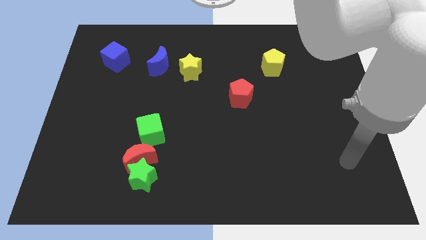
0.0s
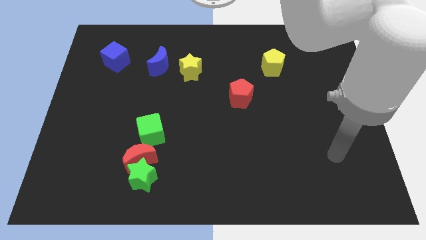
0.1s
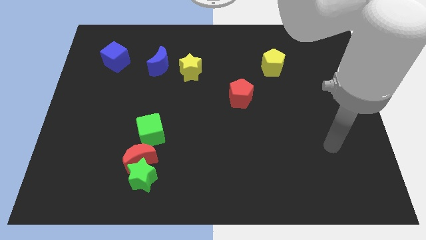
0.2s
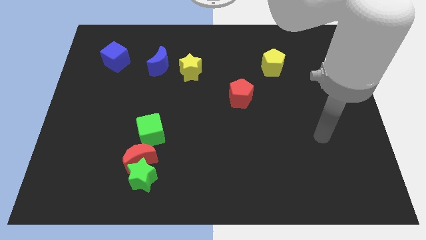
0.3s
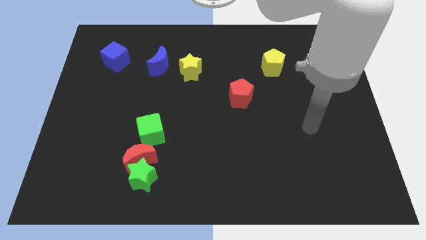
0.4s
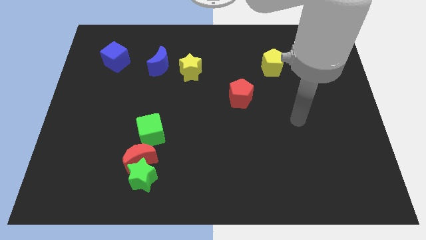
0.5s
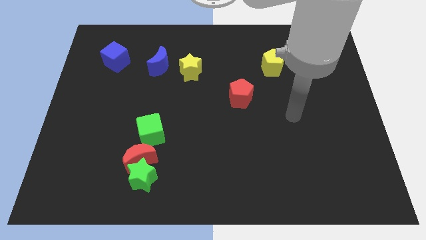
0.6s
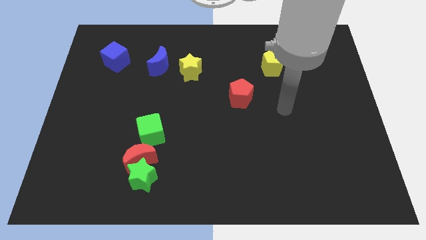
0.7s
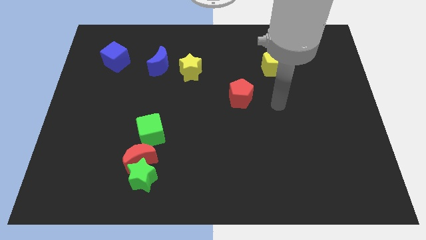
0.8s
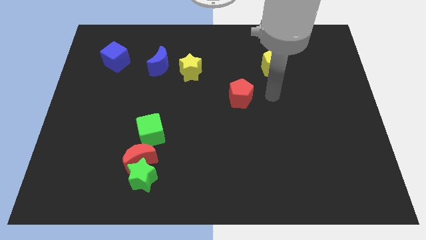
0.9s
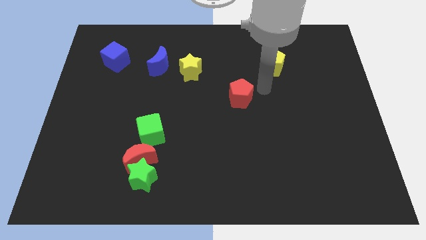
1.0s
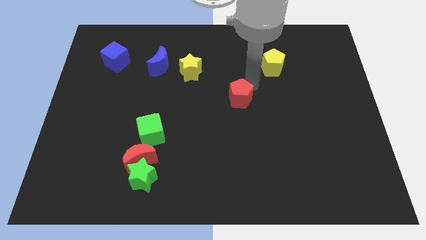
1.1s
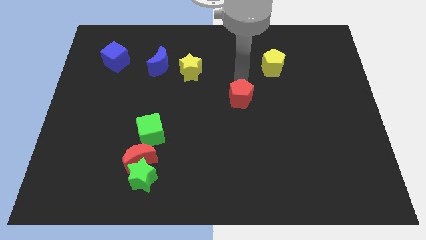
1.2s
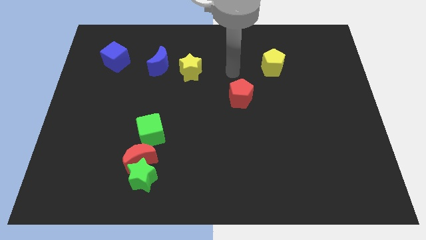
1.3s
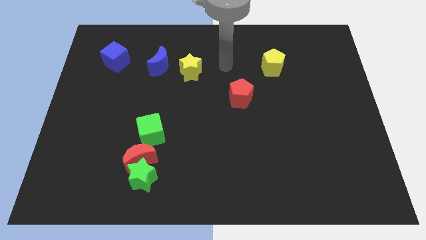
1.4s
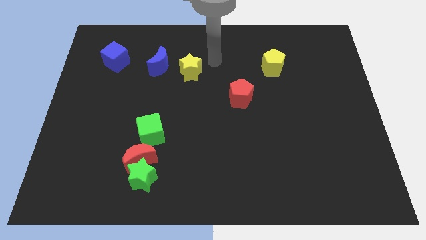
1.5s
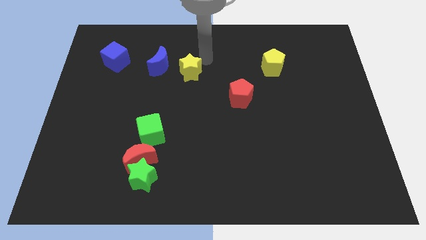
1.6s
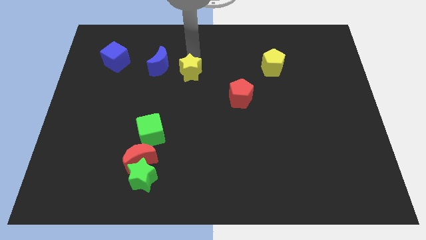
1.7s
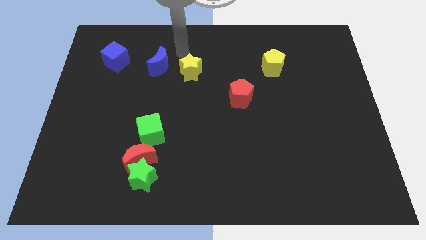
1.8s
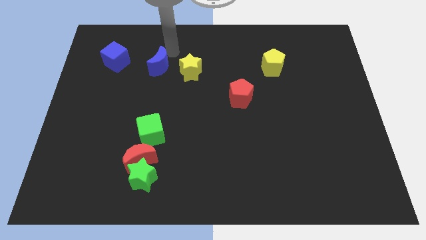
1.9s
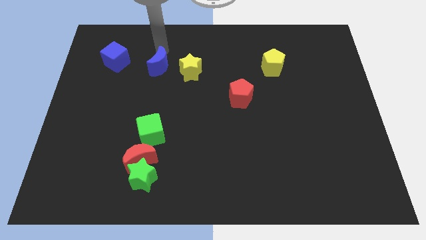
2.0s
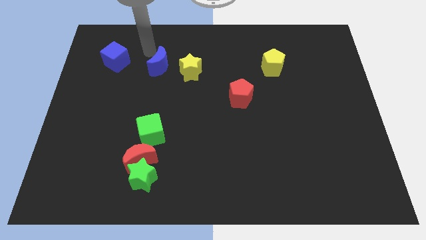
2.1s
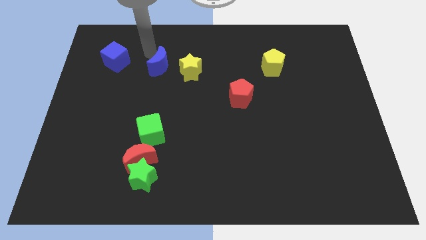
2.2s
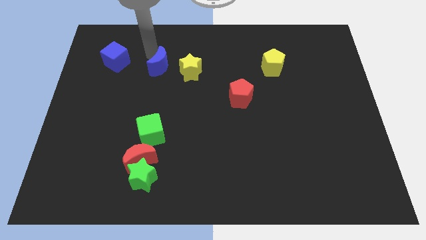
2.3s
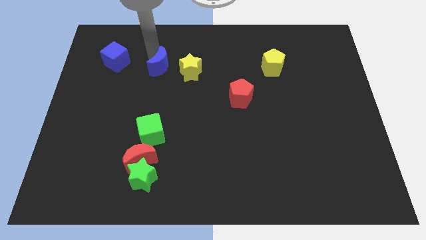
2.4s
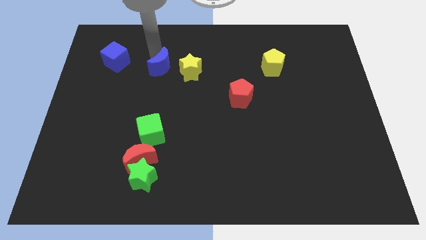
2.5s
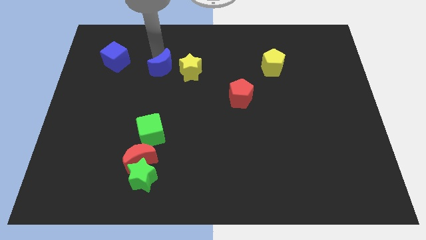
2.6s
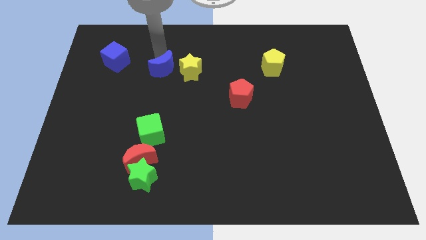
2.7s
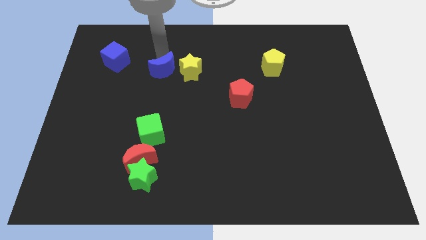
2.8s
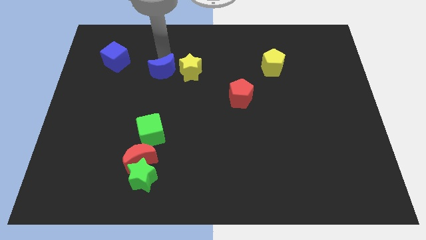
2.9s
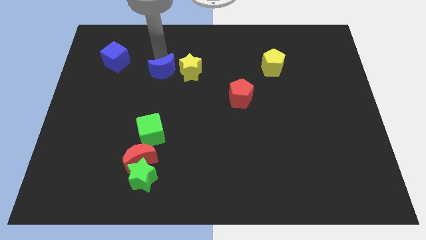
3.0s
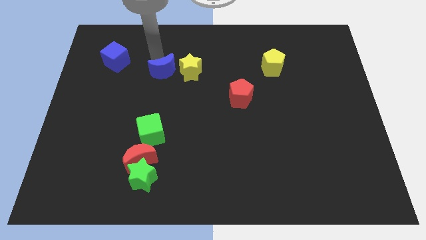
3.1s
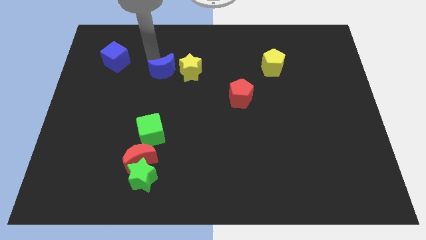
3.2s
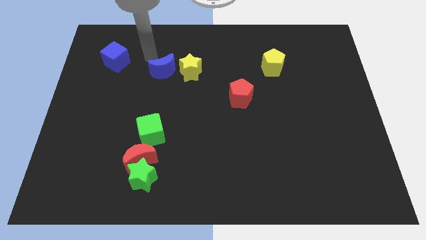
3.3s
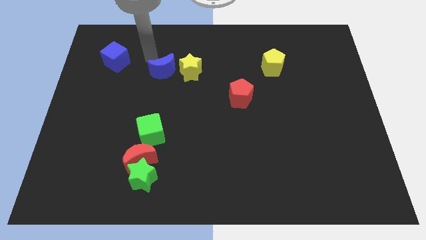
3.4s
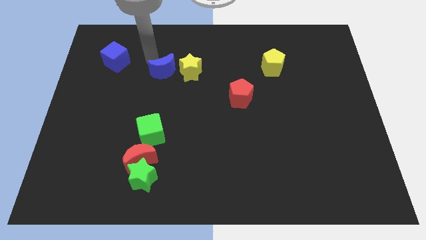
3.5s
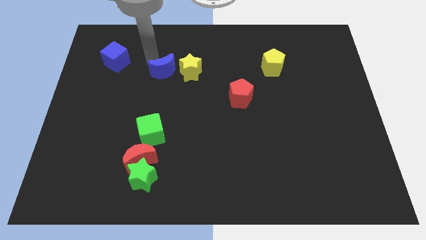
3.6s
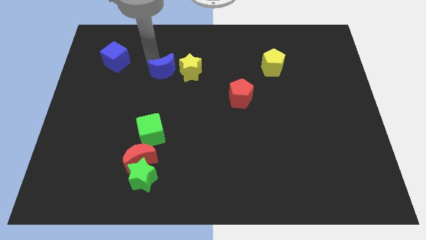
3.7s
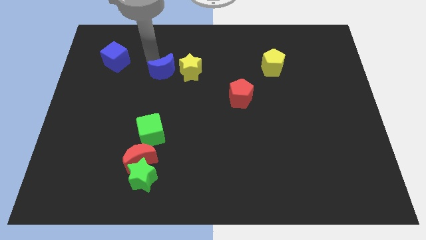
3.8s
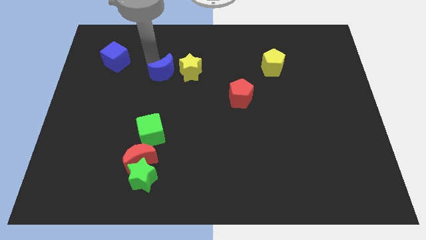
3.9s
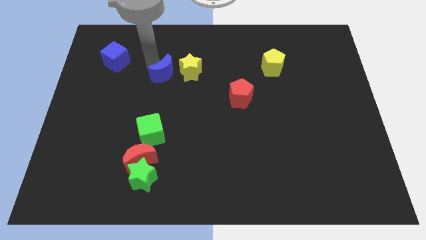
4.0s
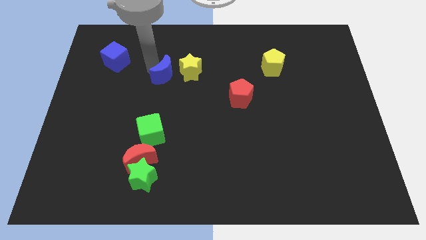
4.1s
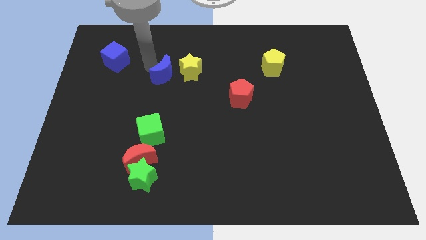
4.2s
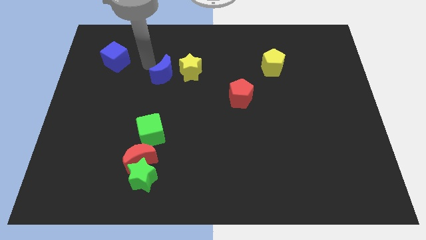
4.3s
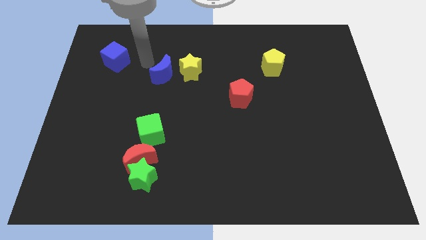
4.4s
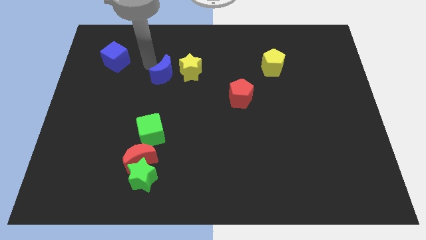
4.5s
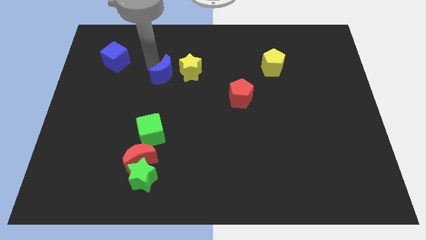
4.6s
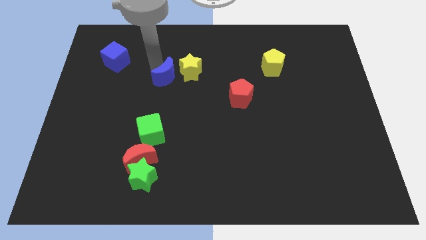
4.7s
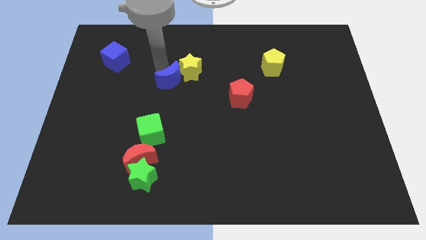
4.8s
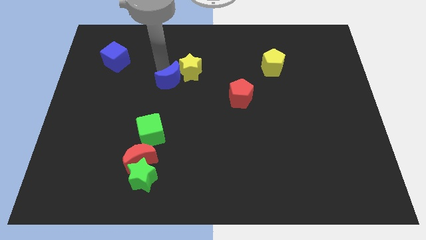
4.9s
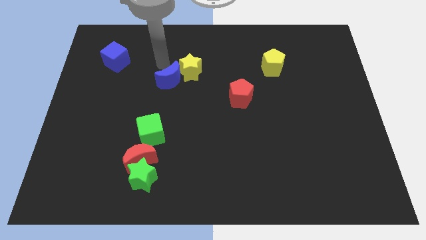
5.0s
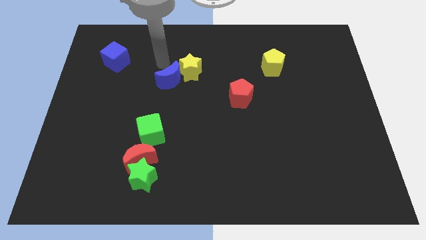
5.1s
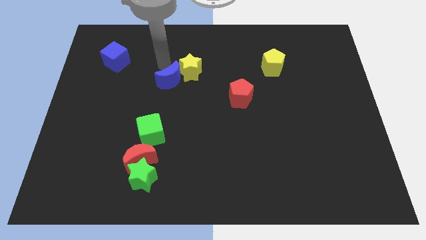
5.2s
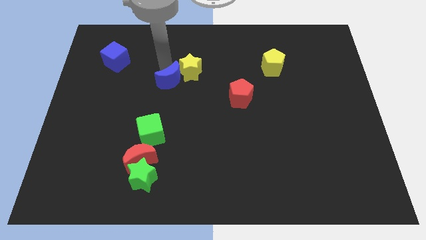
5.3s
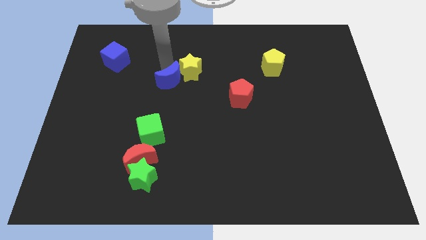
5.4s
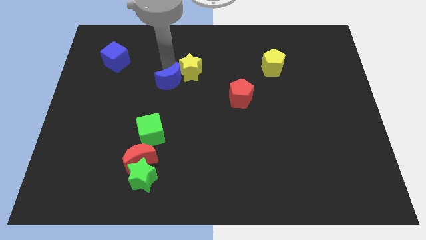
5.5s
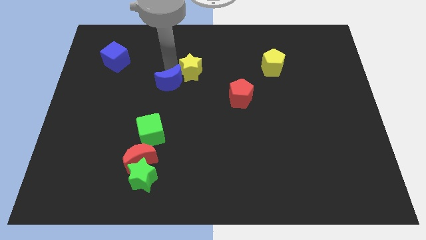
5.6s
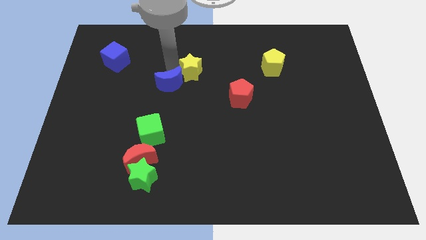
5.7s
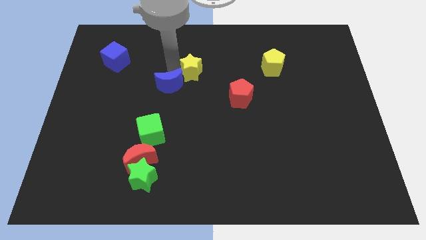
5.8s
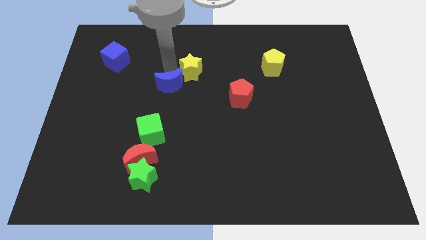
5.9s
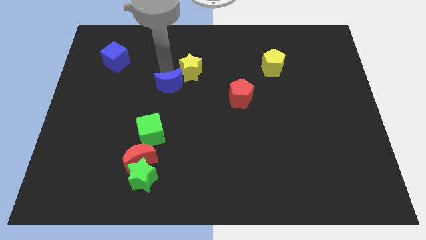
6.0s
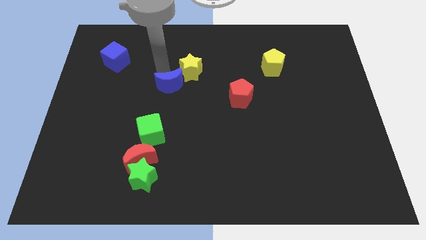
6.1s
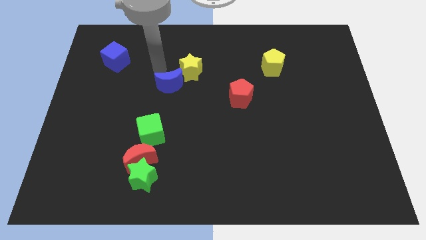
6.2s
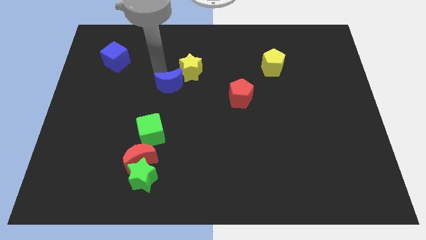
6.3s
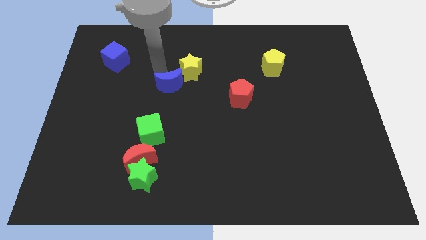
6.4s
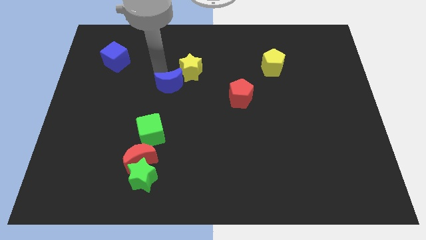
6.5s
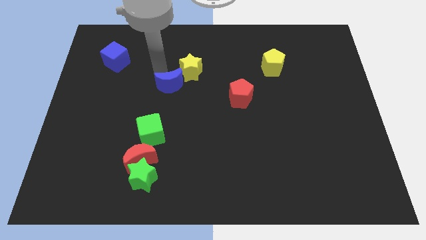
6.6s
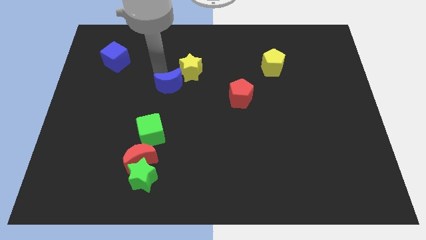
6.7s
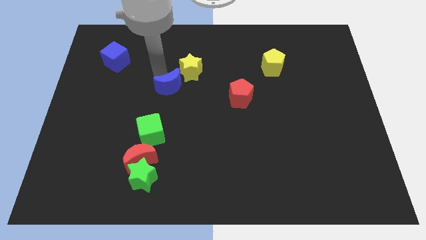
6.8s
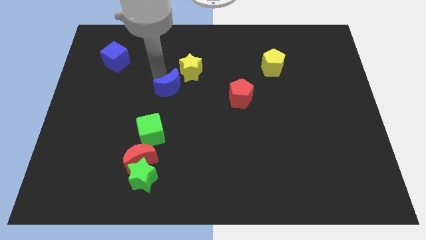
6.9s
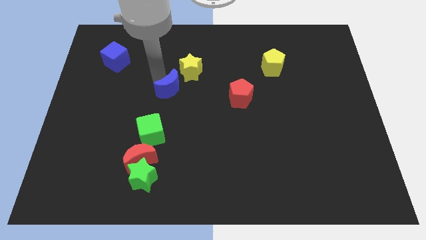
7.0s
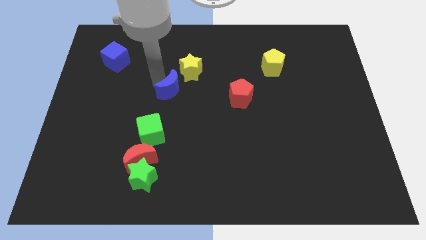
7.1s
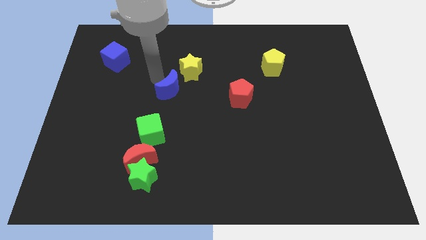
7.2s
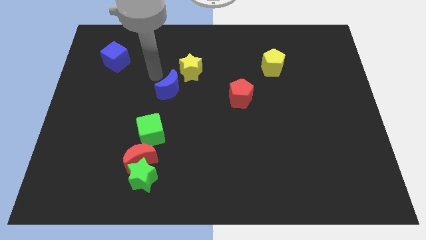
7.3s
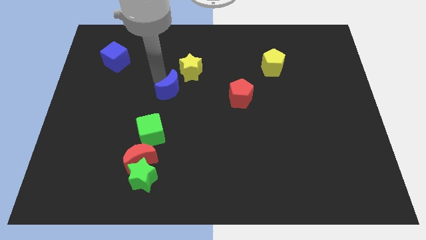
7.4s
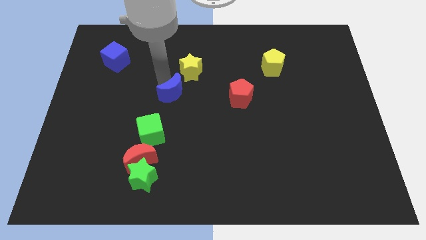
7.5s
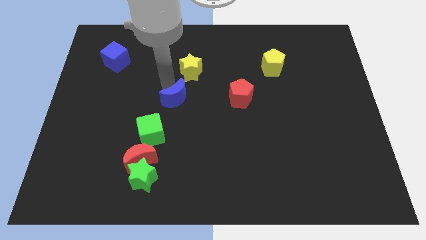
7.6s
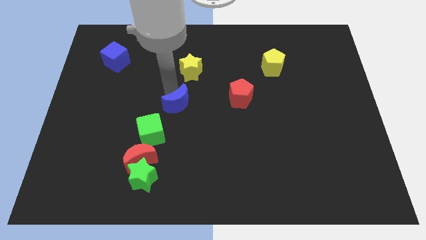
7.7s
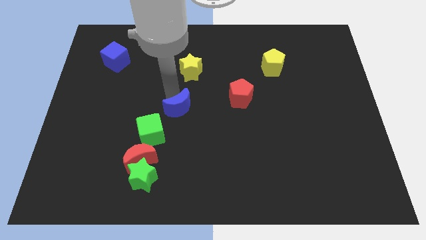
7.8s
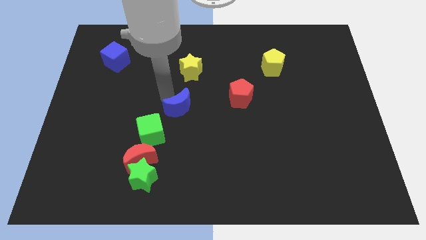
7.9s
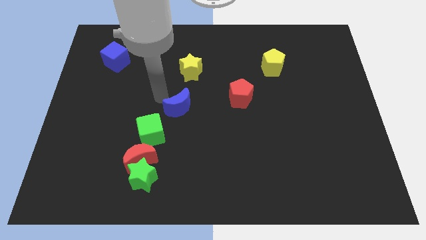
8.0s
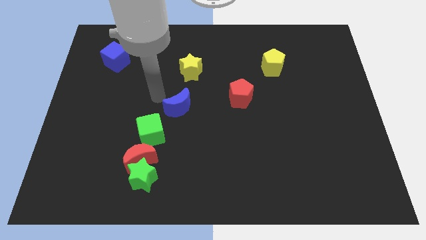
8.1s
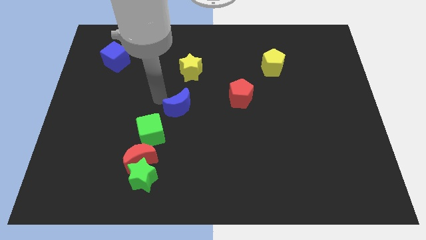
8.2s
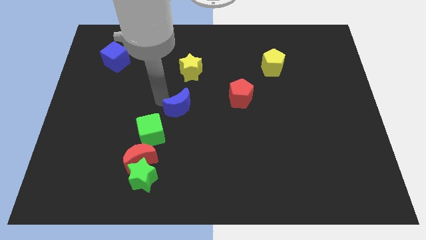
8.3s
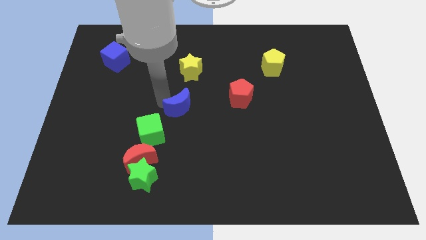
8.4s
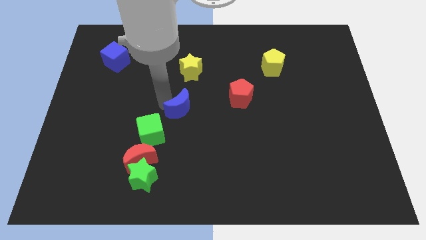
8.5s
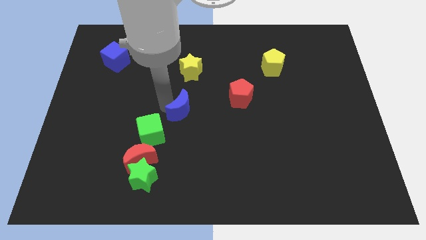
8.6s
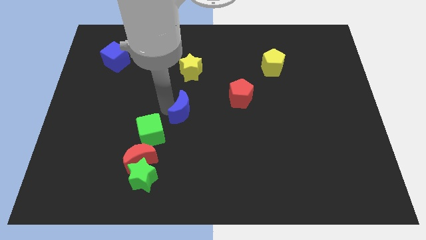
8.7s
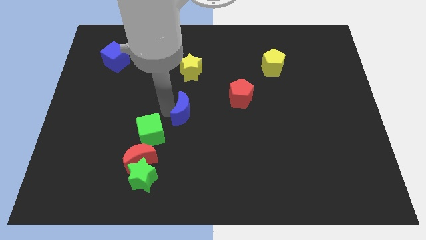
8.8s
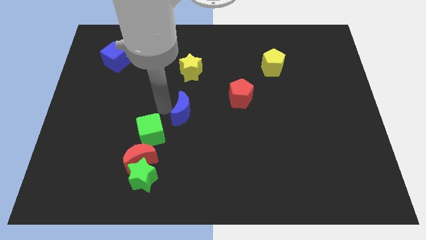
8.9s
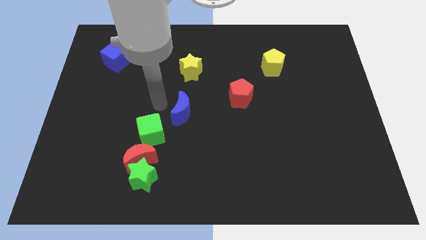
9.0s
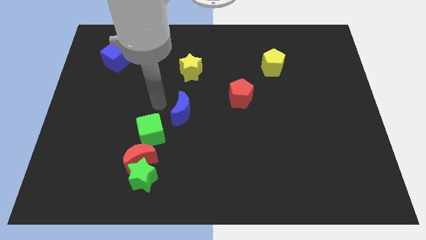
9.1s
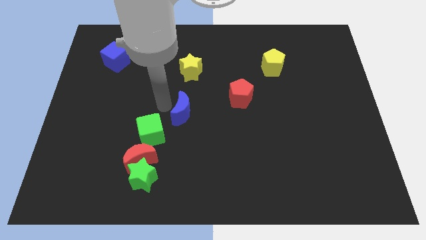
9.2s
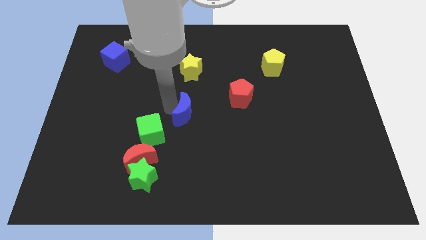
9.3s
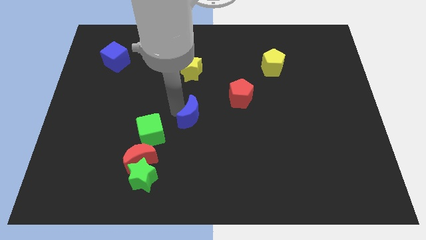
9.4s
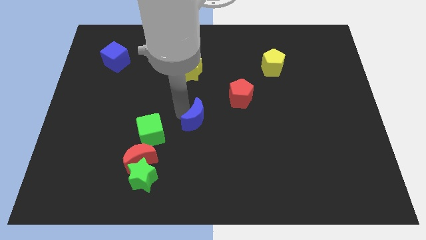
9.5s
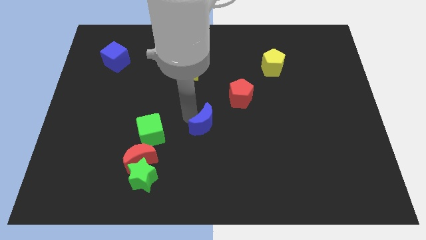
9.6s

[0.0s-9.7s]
push the blue moon diagonally down and to the right
